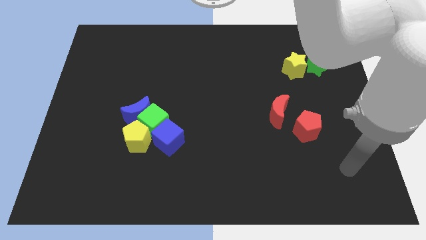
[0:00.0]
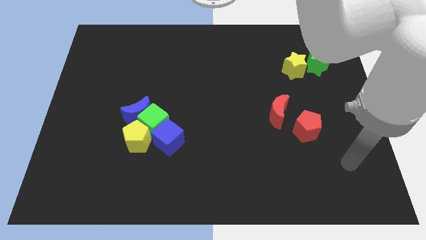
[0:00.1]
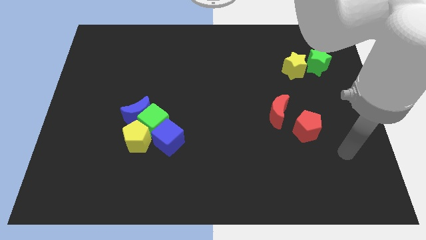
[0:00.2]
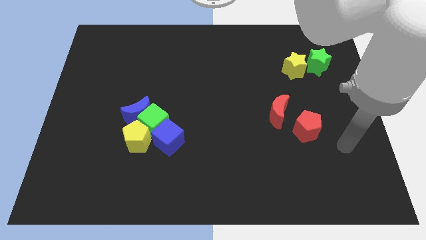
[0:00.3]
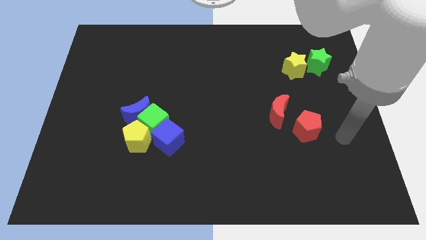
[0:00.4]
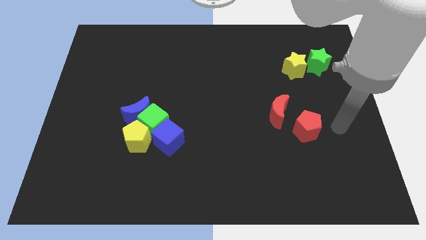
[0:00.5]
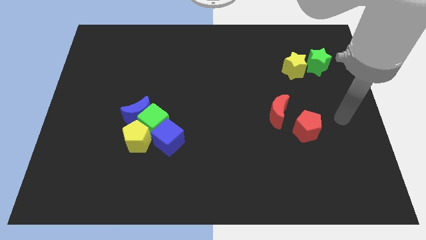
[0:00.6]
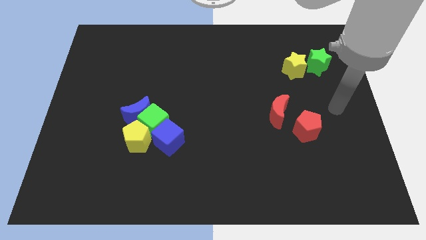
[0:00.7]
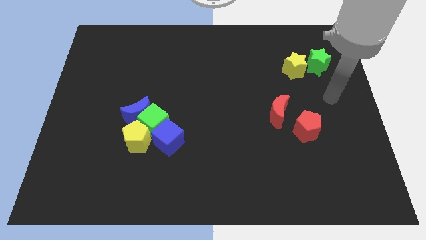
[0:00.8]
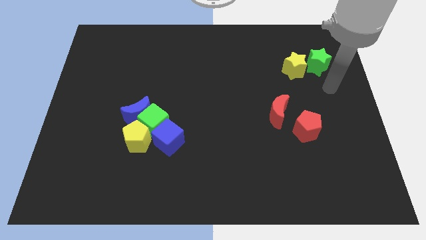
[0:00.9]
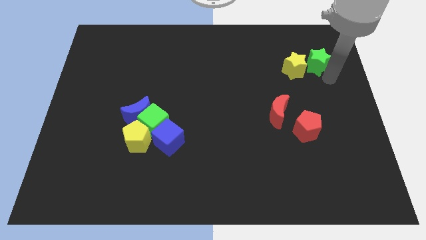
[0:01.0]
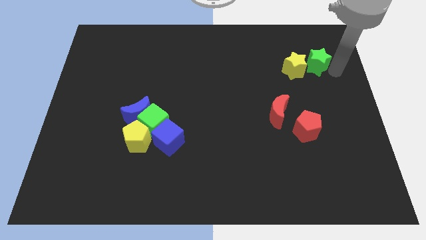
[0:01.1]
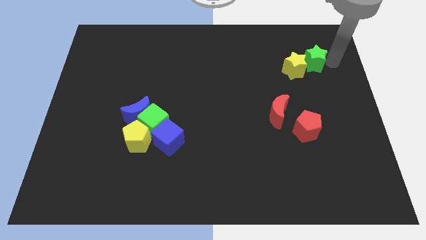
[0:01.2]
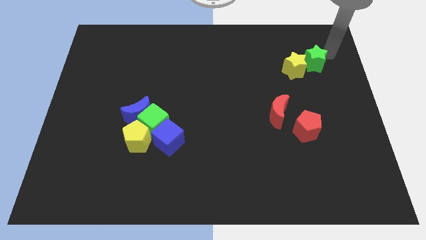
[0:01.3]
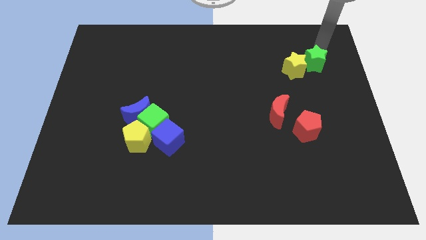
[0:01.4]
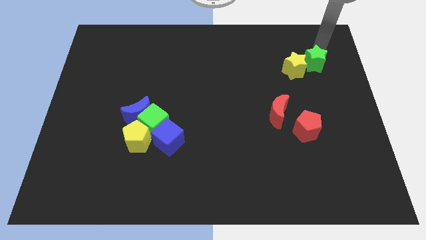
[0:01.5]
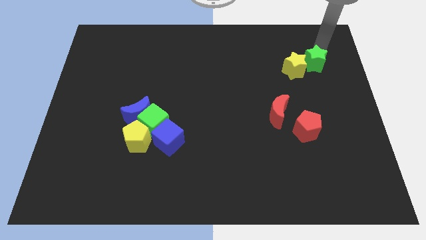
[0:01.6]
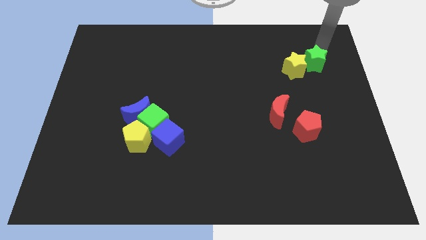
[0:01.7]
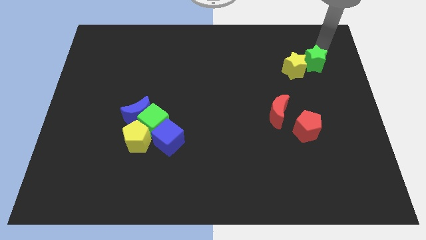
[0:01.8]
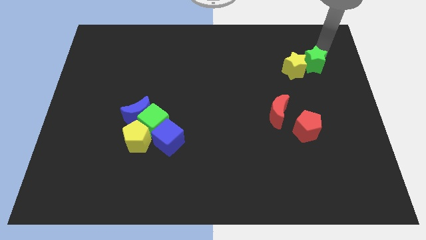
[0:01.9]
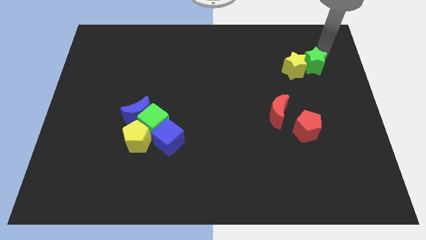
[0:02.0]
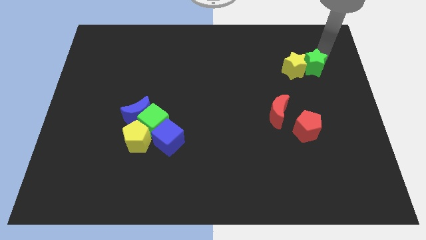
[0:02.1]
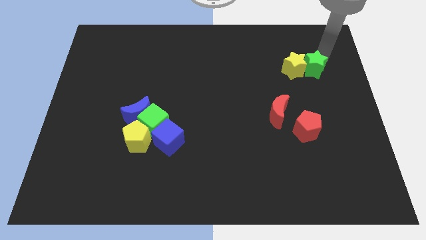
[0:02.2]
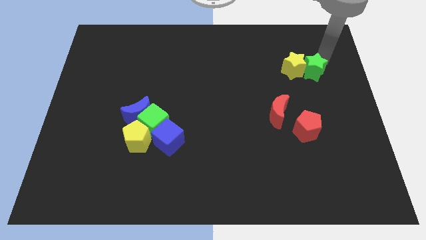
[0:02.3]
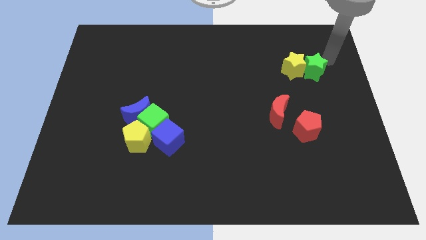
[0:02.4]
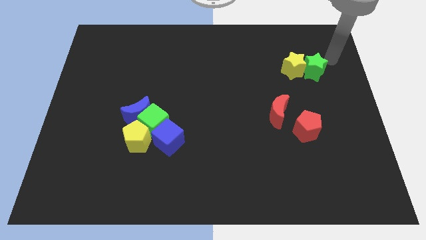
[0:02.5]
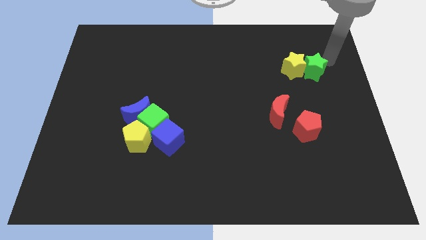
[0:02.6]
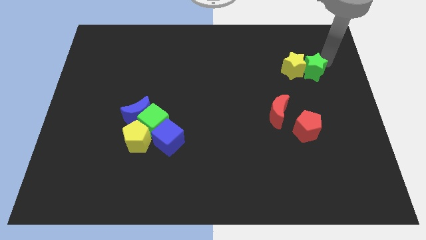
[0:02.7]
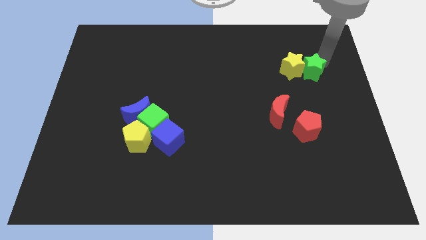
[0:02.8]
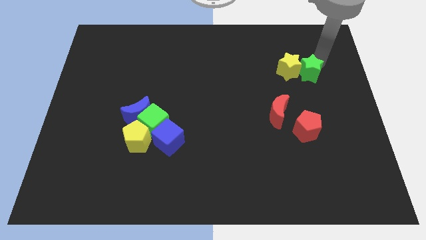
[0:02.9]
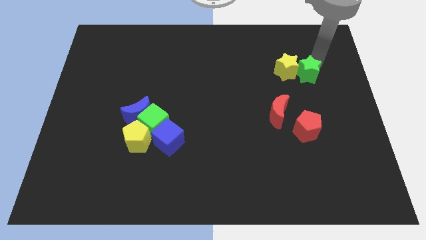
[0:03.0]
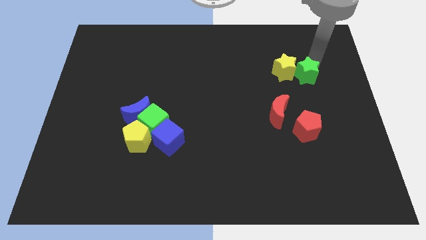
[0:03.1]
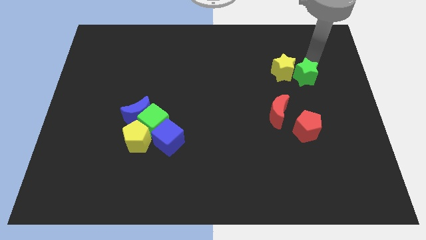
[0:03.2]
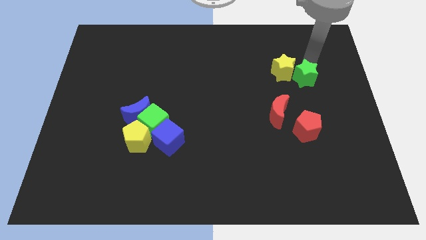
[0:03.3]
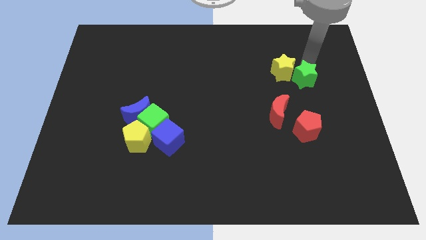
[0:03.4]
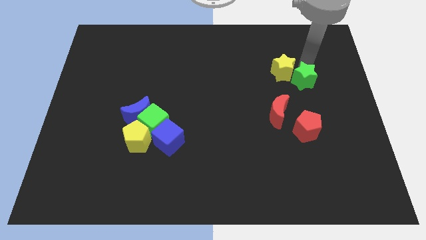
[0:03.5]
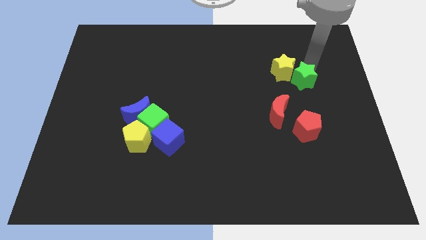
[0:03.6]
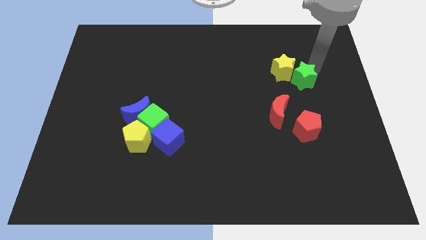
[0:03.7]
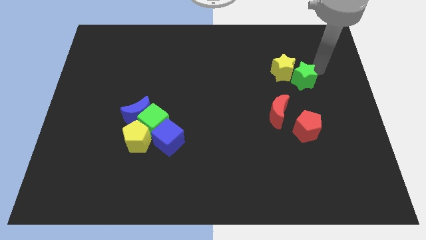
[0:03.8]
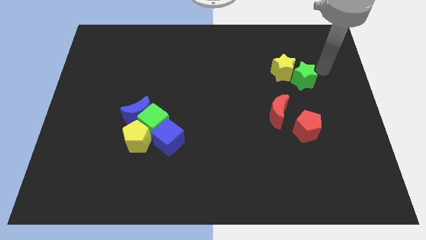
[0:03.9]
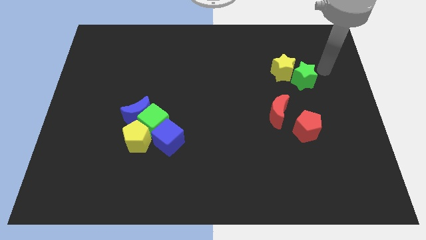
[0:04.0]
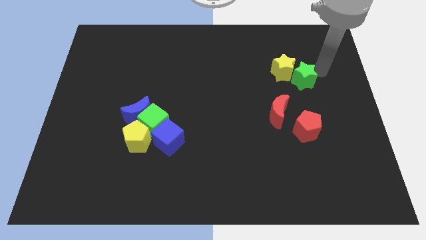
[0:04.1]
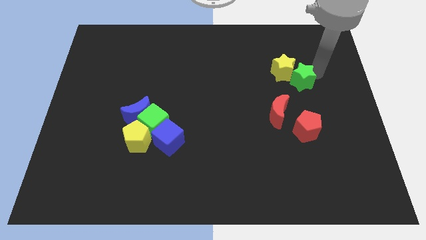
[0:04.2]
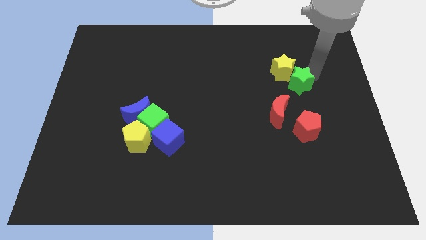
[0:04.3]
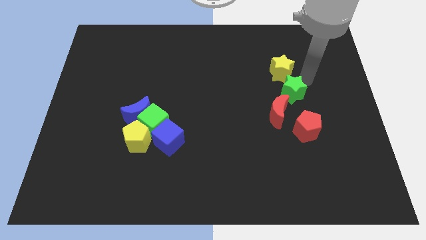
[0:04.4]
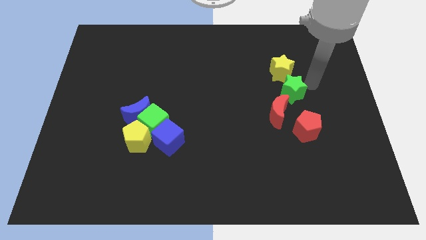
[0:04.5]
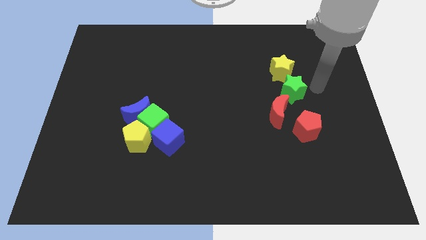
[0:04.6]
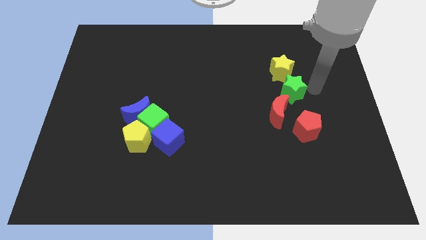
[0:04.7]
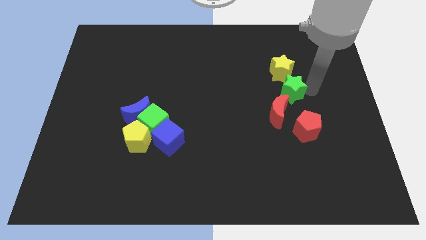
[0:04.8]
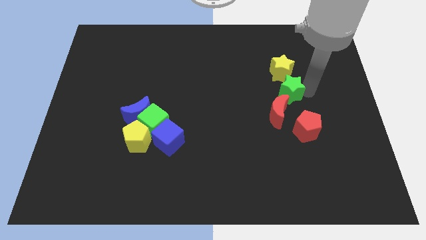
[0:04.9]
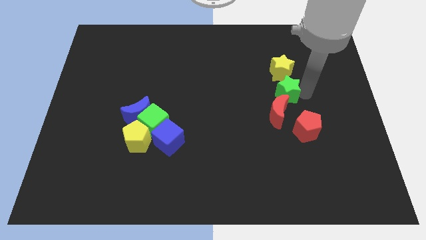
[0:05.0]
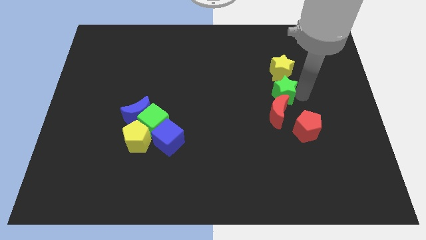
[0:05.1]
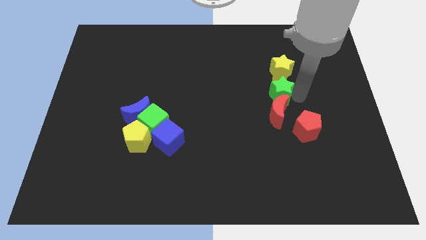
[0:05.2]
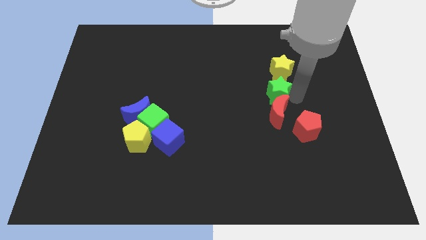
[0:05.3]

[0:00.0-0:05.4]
put the green star to the top left side of the red moon

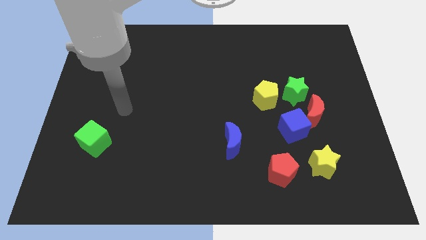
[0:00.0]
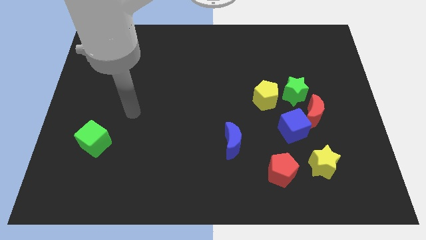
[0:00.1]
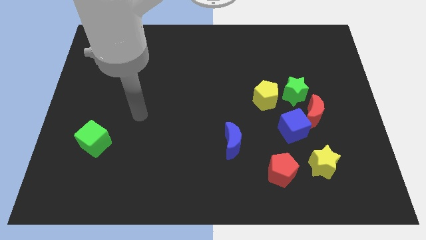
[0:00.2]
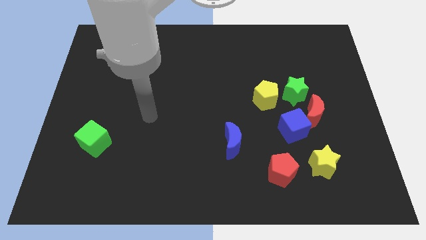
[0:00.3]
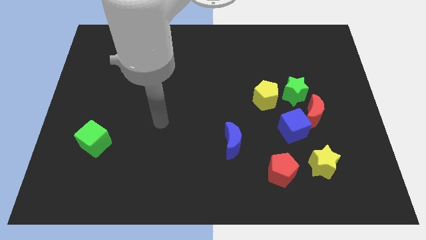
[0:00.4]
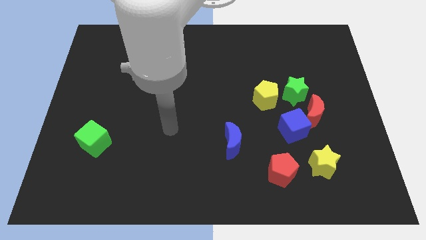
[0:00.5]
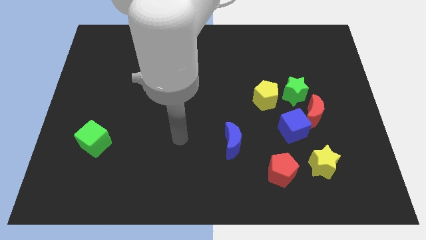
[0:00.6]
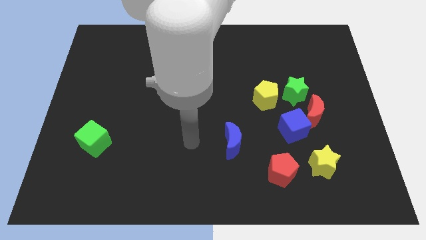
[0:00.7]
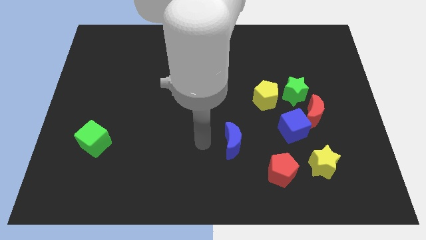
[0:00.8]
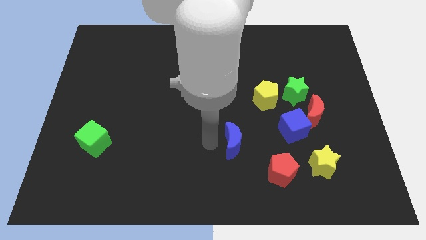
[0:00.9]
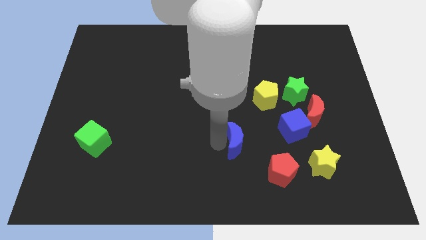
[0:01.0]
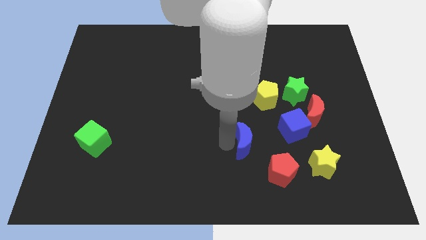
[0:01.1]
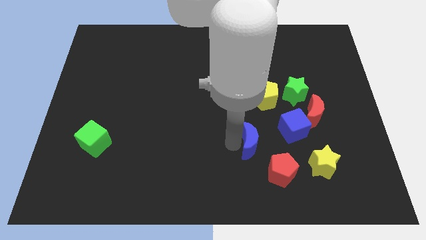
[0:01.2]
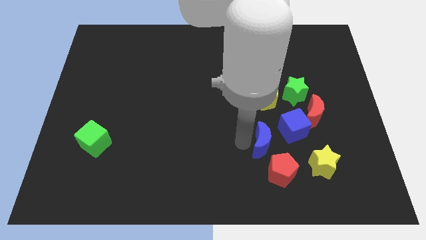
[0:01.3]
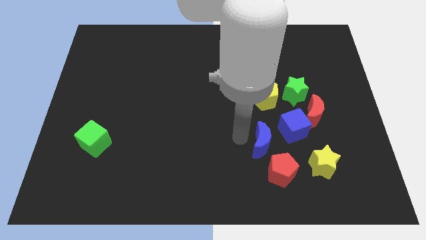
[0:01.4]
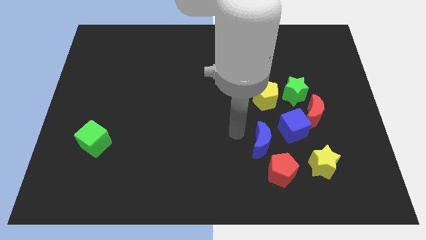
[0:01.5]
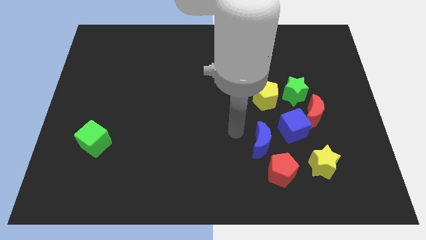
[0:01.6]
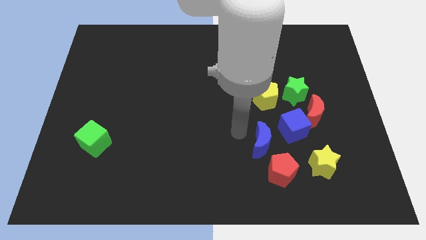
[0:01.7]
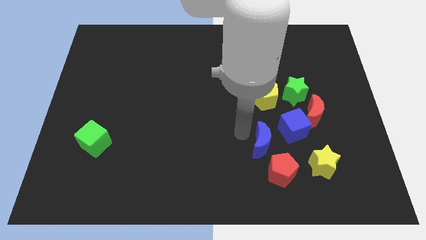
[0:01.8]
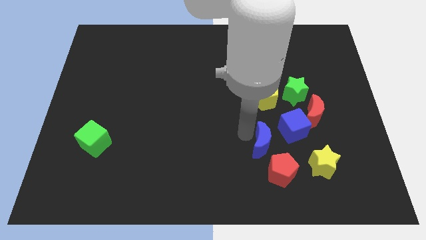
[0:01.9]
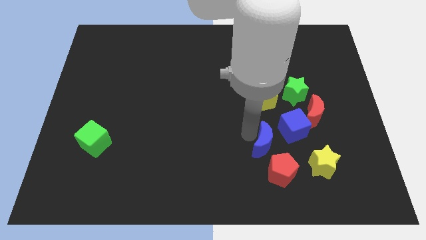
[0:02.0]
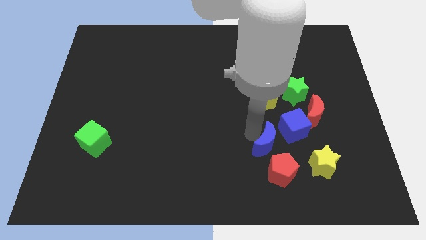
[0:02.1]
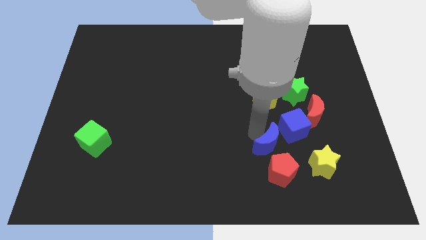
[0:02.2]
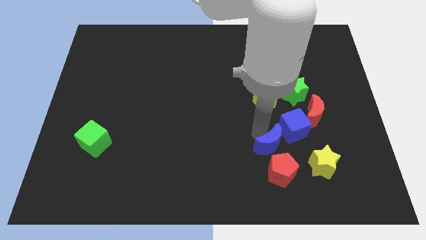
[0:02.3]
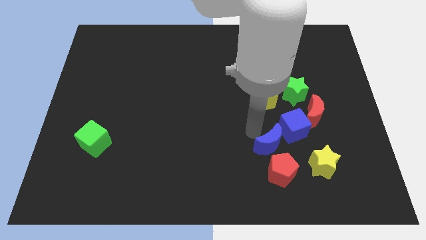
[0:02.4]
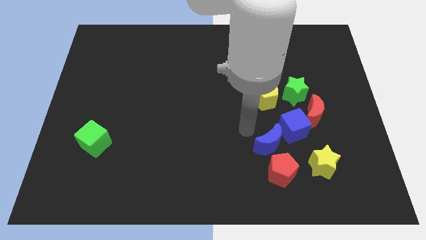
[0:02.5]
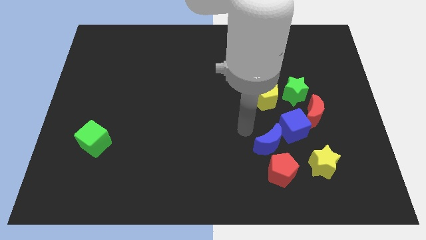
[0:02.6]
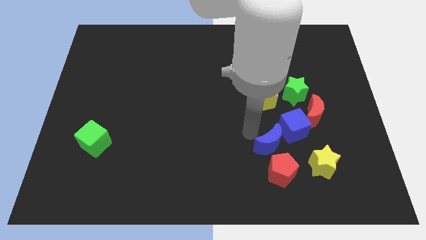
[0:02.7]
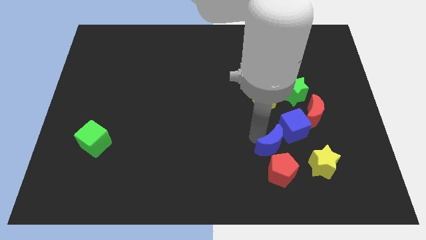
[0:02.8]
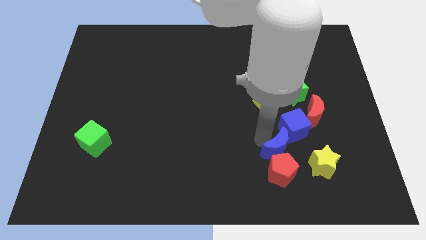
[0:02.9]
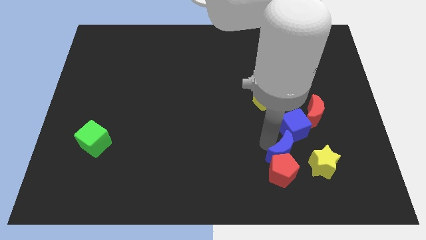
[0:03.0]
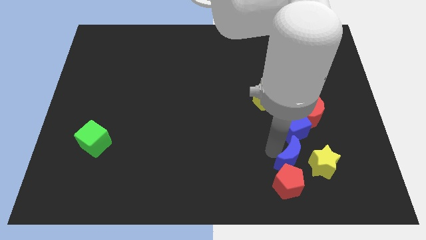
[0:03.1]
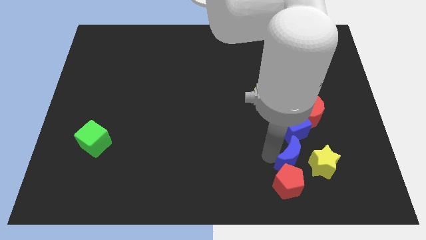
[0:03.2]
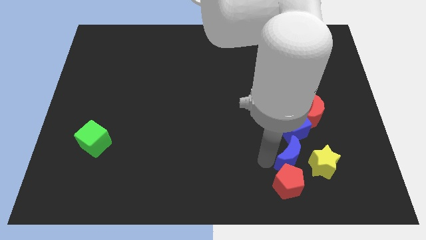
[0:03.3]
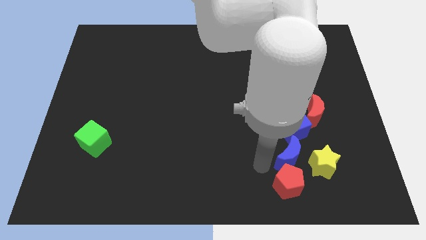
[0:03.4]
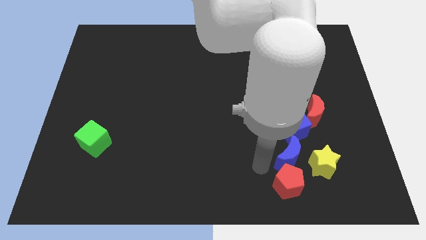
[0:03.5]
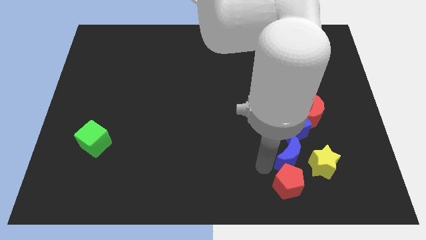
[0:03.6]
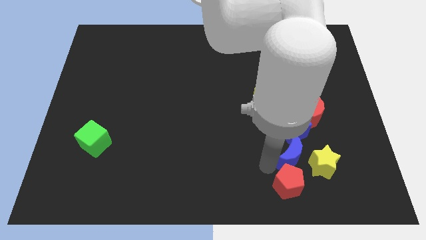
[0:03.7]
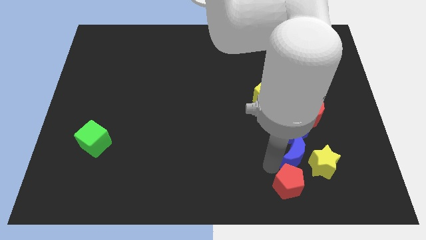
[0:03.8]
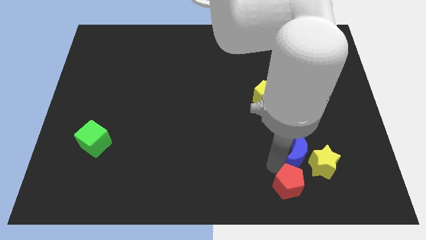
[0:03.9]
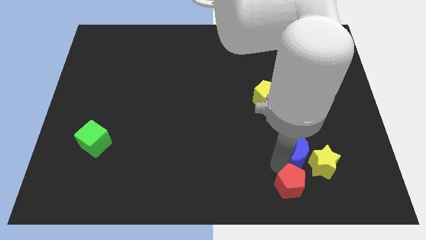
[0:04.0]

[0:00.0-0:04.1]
put the blue moon diagonally down and to the right of the blue cube
